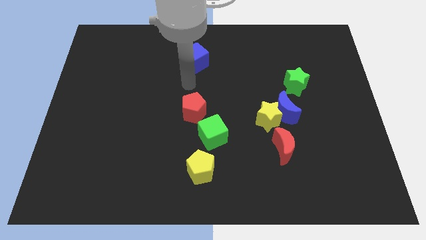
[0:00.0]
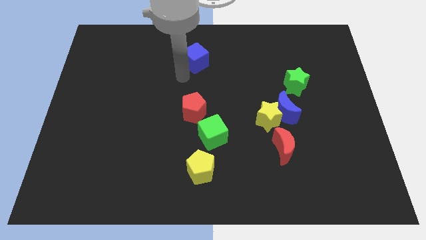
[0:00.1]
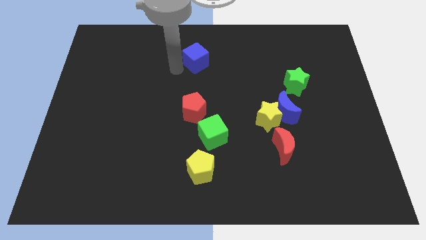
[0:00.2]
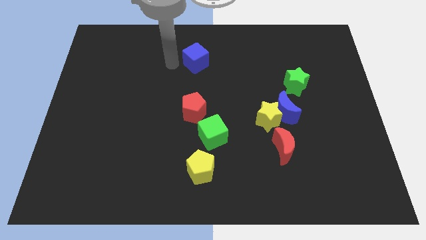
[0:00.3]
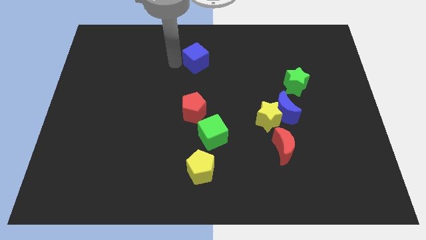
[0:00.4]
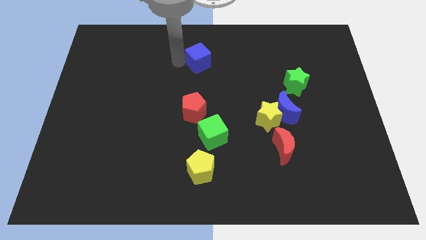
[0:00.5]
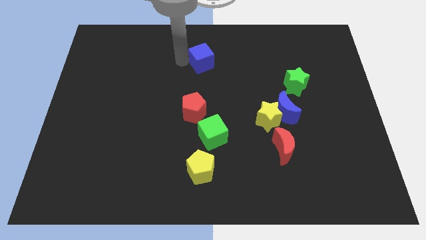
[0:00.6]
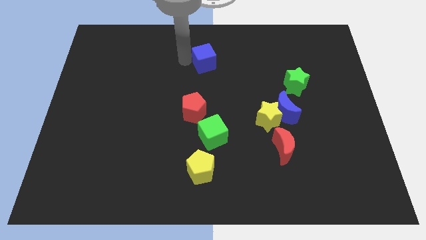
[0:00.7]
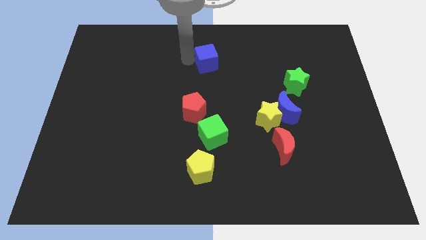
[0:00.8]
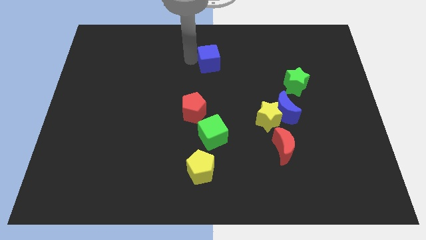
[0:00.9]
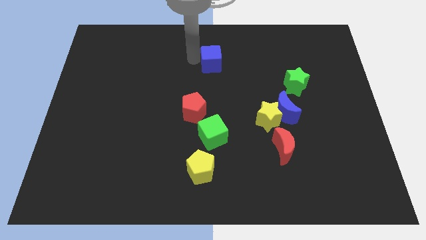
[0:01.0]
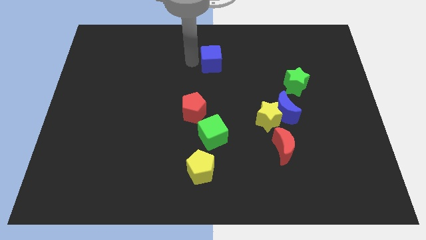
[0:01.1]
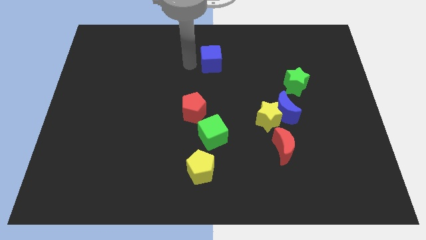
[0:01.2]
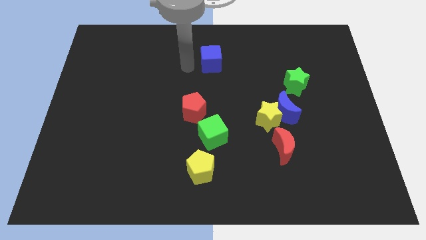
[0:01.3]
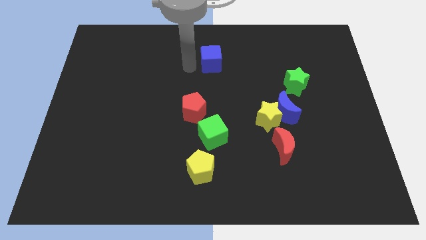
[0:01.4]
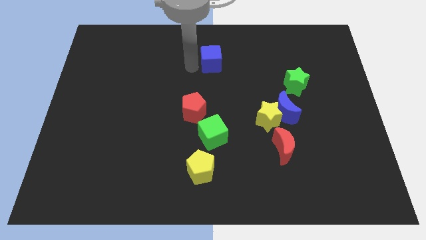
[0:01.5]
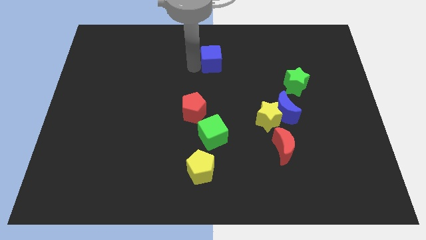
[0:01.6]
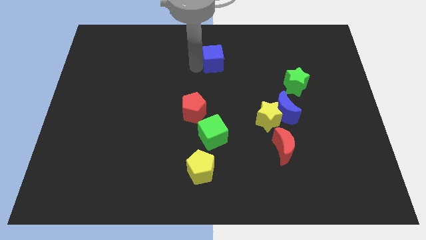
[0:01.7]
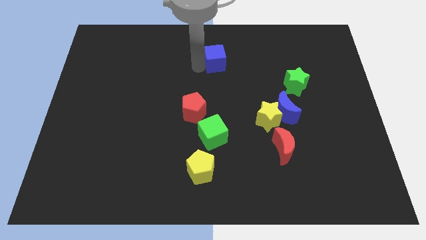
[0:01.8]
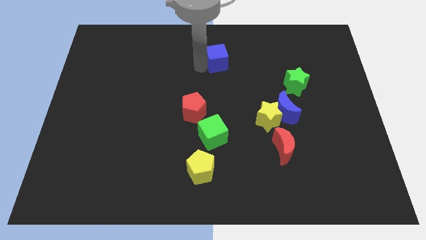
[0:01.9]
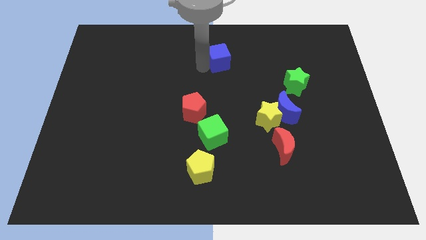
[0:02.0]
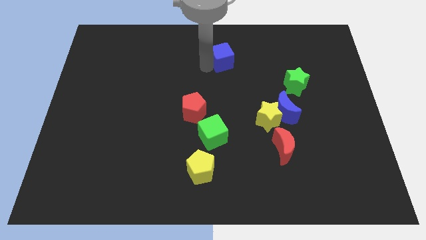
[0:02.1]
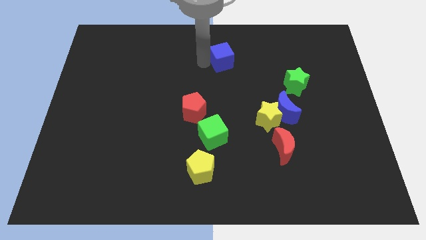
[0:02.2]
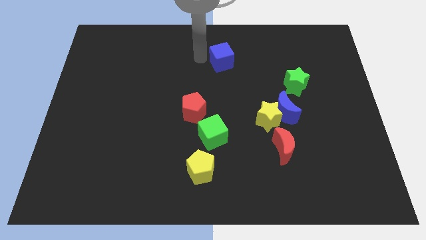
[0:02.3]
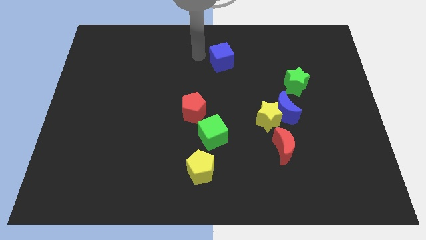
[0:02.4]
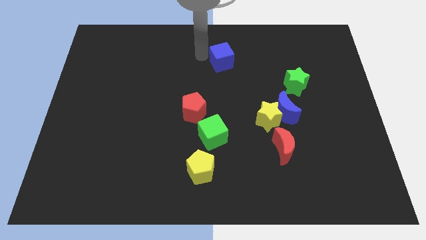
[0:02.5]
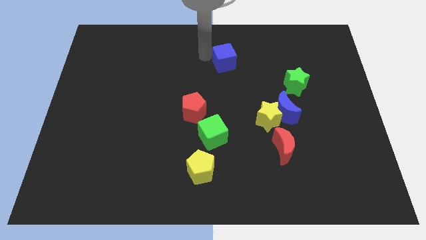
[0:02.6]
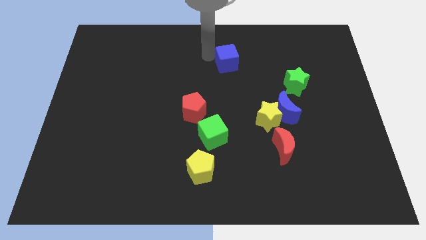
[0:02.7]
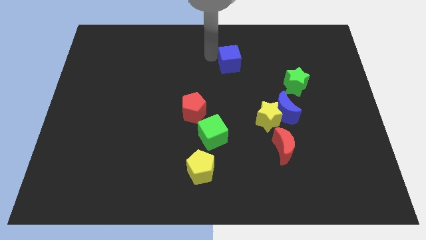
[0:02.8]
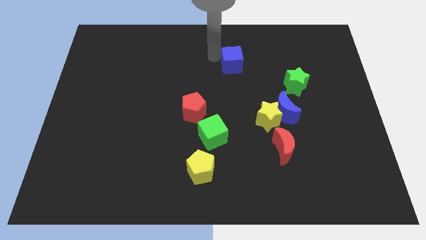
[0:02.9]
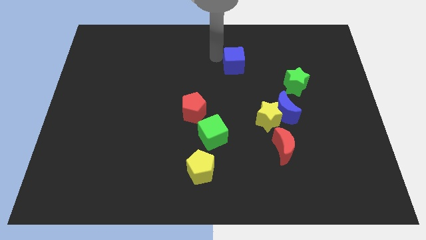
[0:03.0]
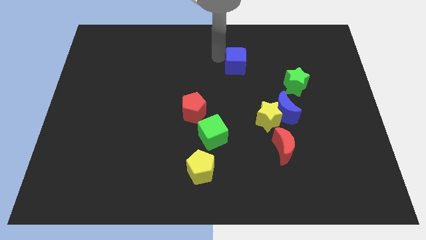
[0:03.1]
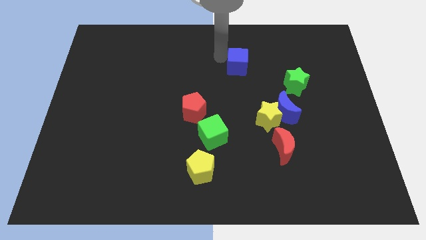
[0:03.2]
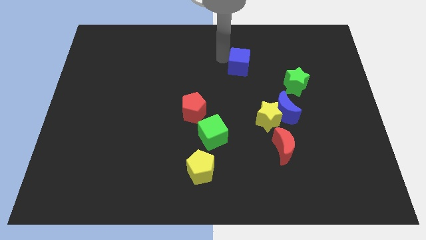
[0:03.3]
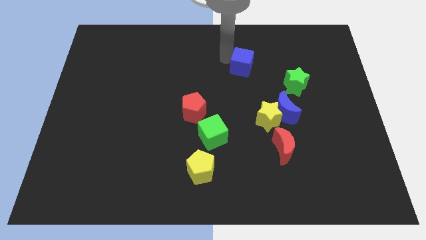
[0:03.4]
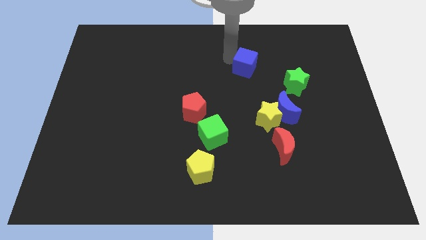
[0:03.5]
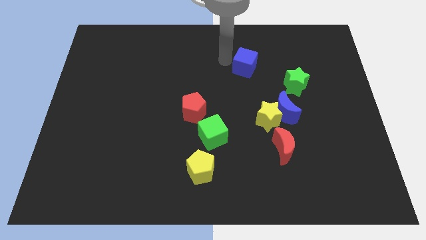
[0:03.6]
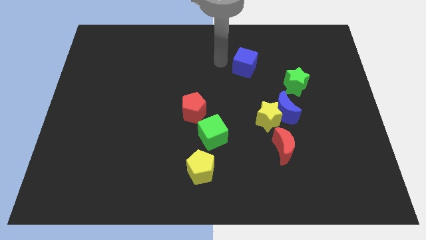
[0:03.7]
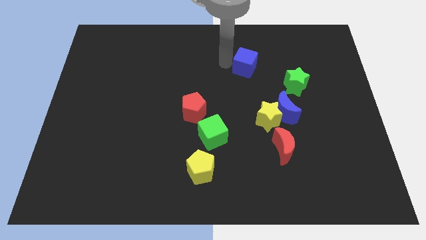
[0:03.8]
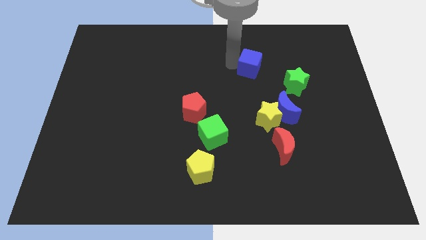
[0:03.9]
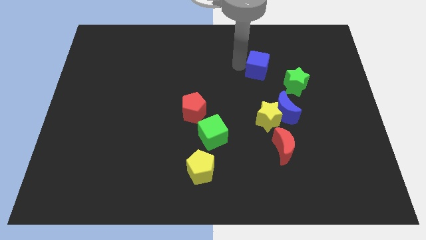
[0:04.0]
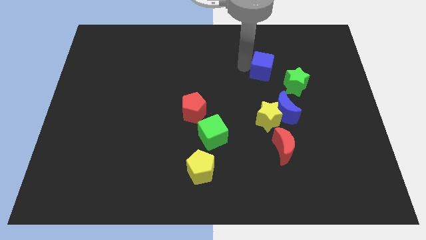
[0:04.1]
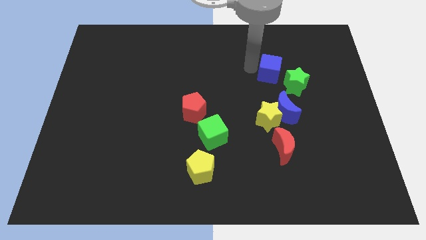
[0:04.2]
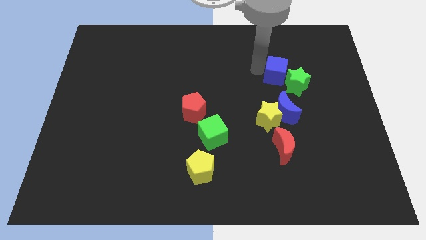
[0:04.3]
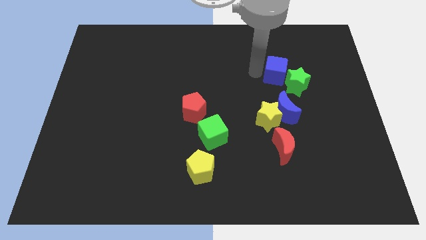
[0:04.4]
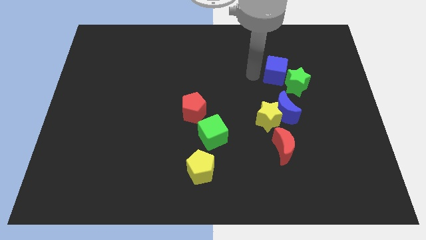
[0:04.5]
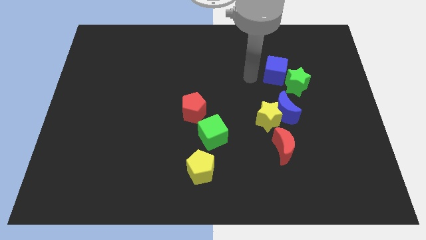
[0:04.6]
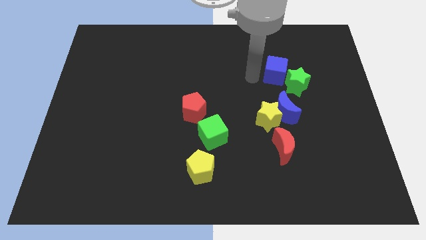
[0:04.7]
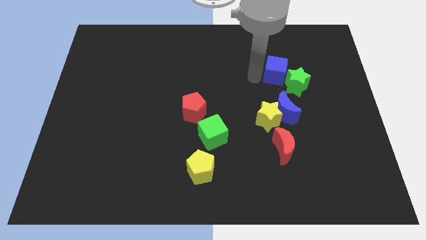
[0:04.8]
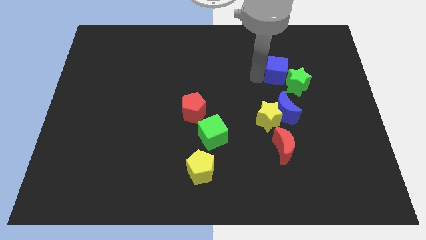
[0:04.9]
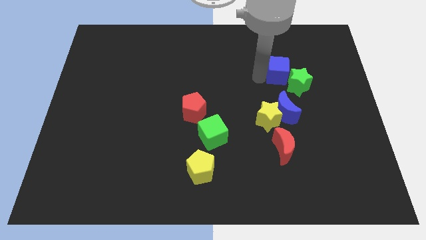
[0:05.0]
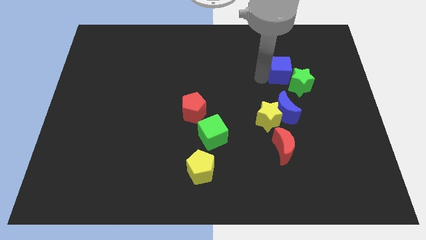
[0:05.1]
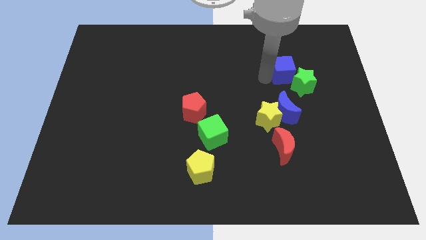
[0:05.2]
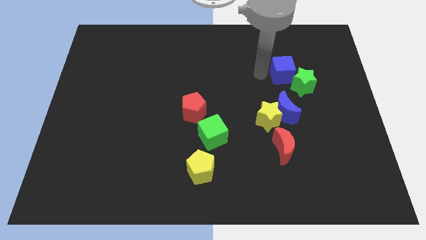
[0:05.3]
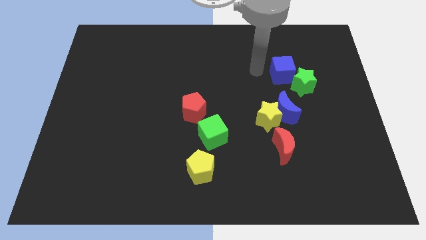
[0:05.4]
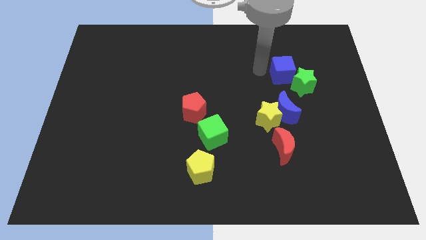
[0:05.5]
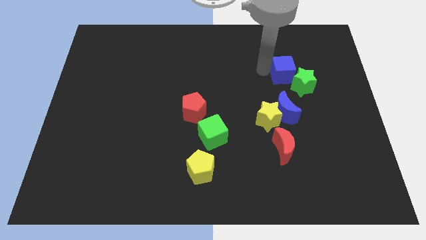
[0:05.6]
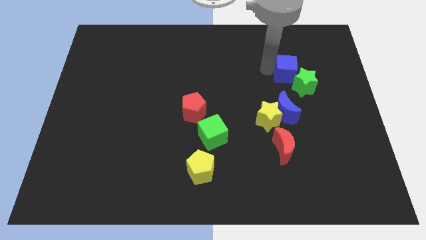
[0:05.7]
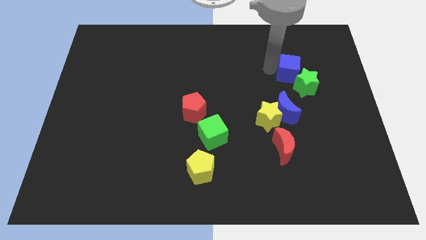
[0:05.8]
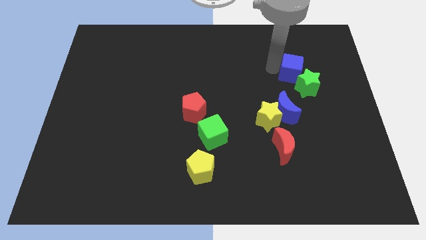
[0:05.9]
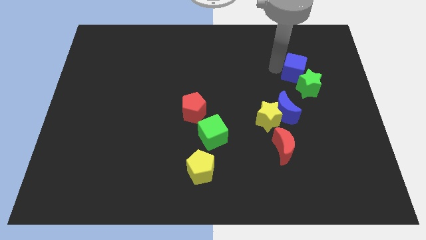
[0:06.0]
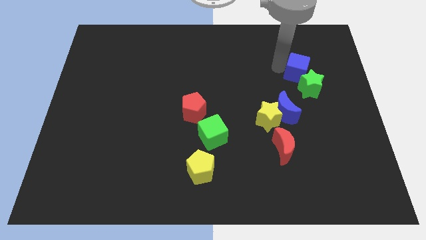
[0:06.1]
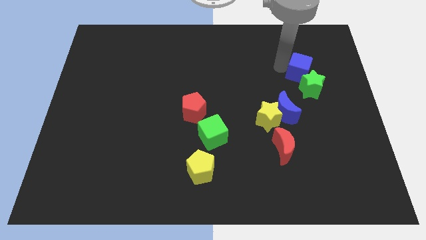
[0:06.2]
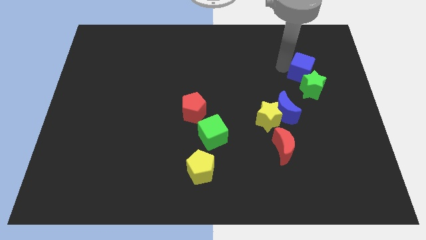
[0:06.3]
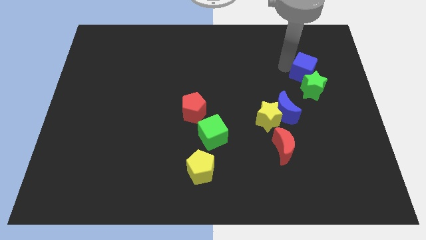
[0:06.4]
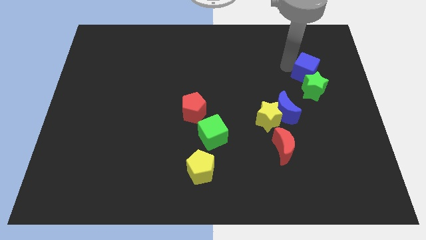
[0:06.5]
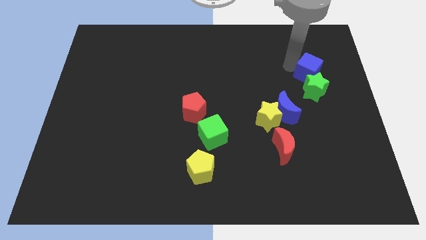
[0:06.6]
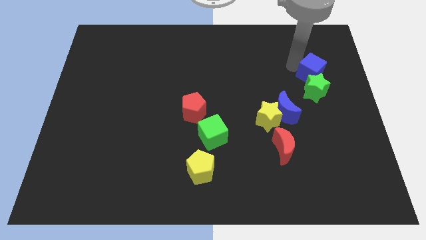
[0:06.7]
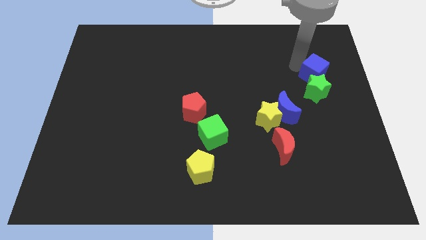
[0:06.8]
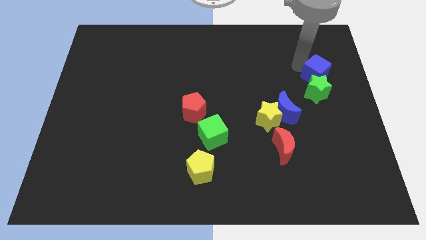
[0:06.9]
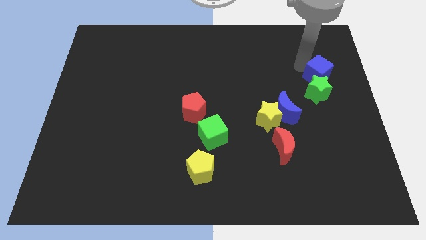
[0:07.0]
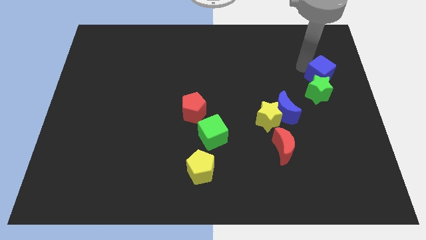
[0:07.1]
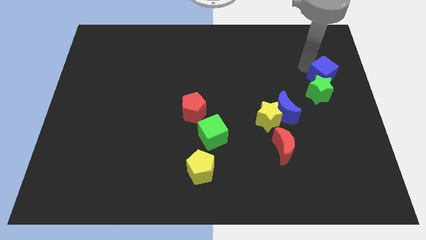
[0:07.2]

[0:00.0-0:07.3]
move the blue cube to the right side
